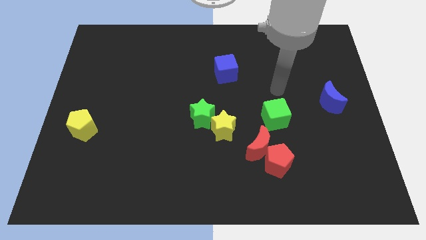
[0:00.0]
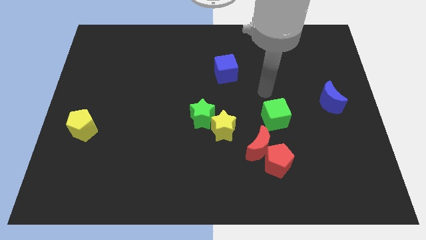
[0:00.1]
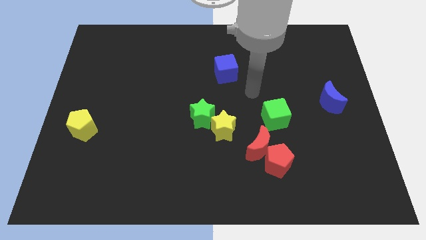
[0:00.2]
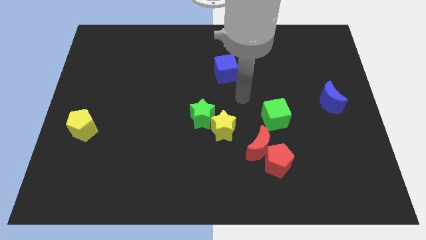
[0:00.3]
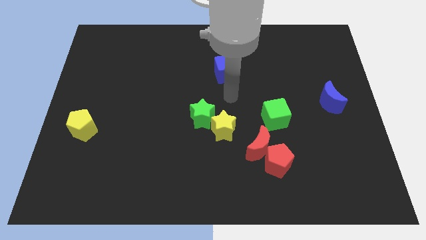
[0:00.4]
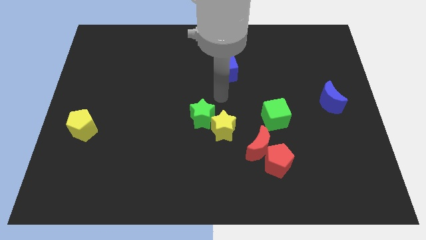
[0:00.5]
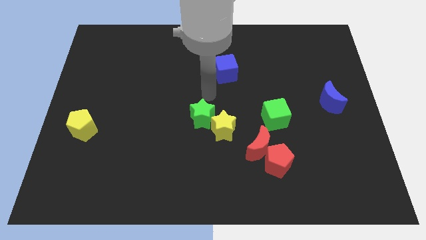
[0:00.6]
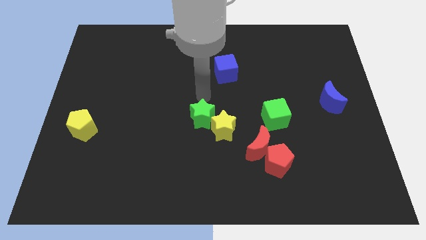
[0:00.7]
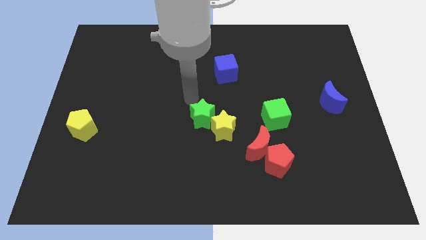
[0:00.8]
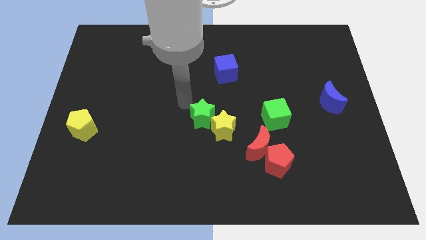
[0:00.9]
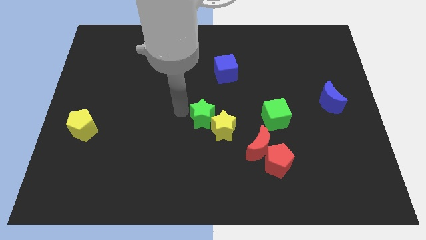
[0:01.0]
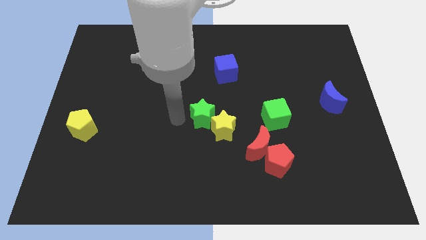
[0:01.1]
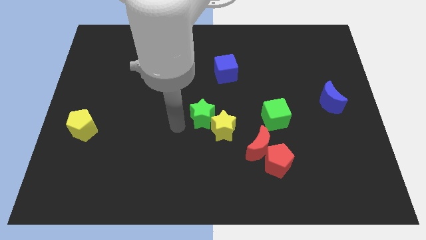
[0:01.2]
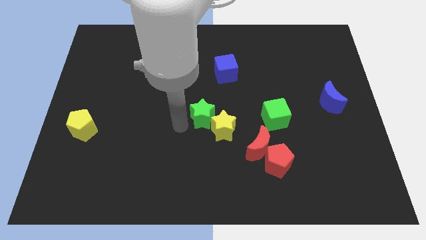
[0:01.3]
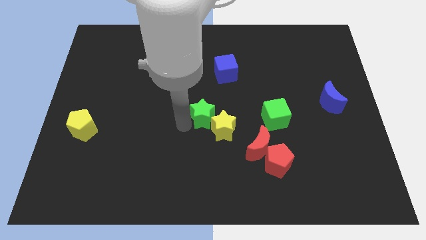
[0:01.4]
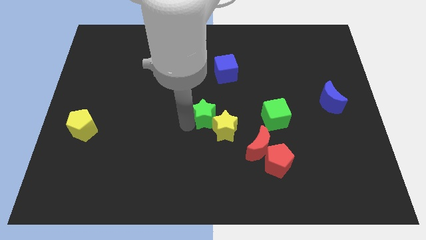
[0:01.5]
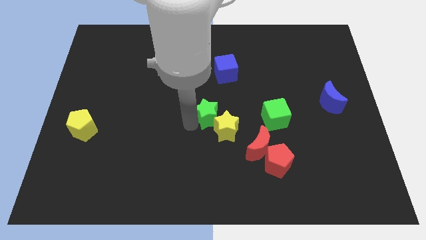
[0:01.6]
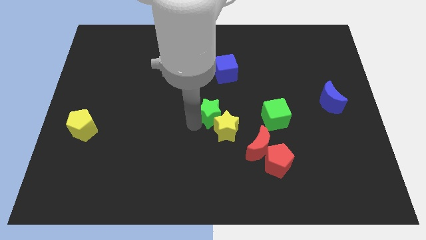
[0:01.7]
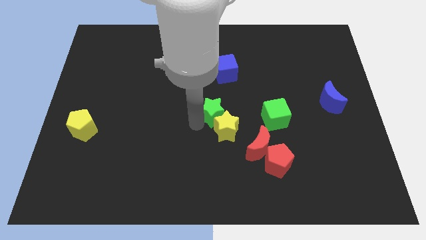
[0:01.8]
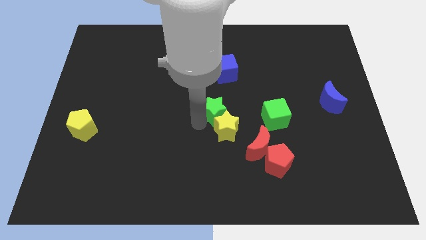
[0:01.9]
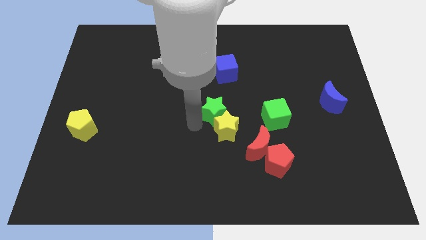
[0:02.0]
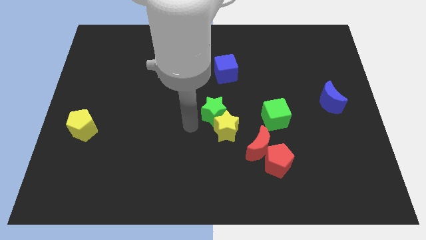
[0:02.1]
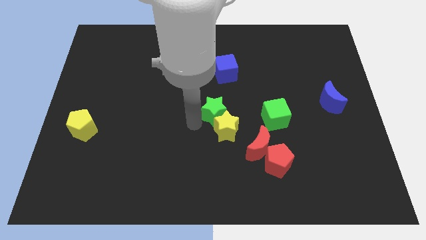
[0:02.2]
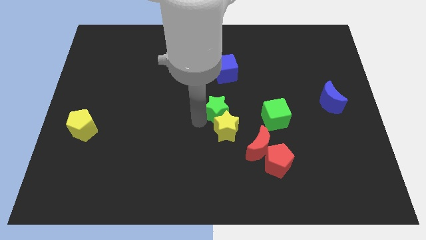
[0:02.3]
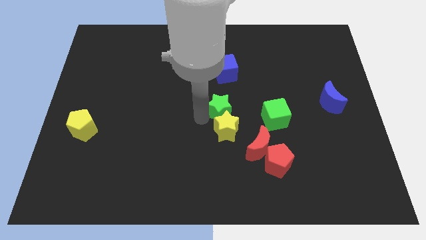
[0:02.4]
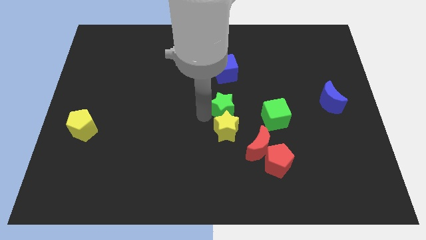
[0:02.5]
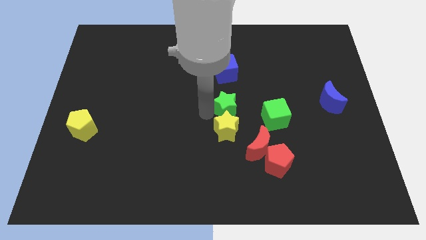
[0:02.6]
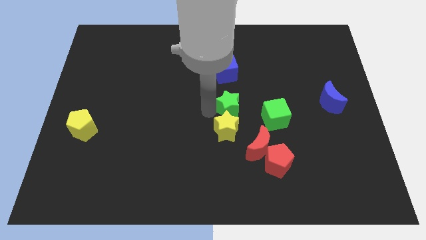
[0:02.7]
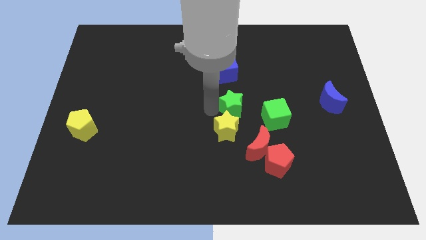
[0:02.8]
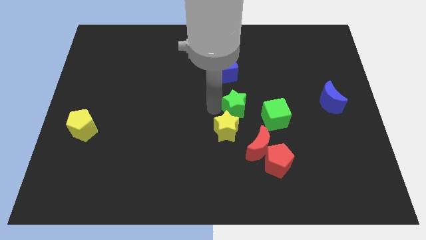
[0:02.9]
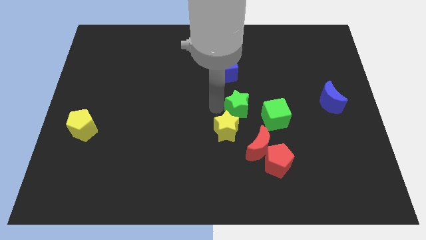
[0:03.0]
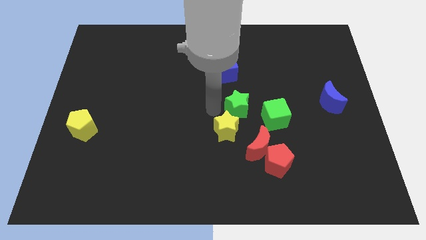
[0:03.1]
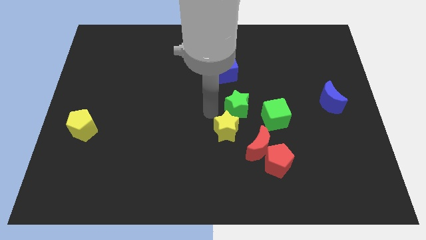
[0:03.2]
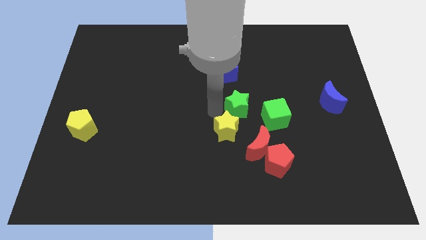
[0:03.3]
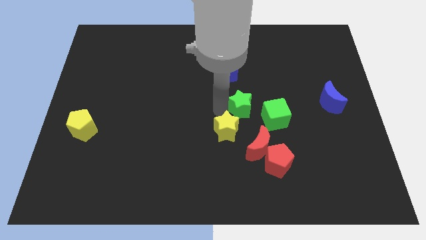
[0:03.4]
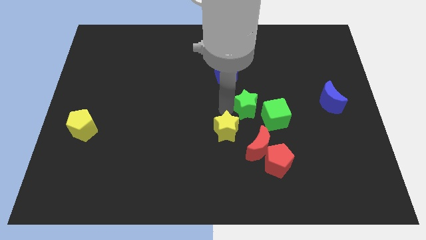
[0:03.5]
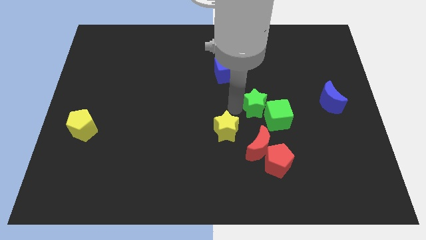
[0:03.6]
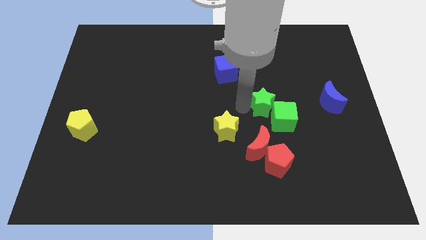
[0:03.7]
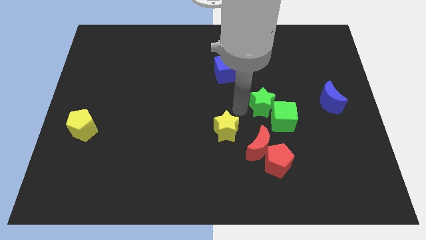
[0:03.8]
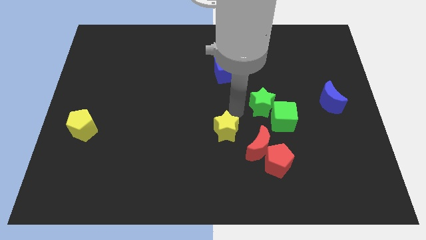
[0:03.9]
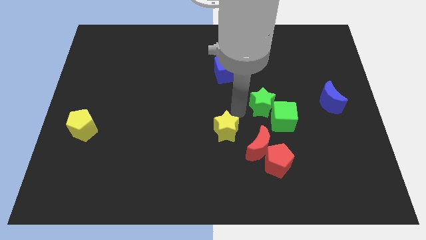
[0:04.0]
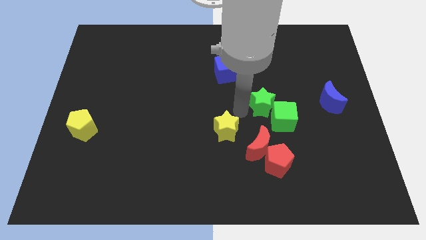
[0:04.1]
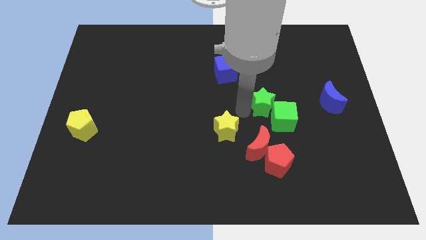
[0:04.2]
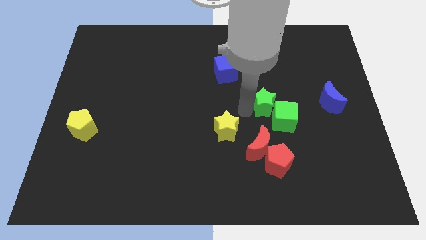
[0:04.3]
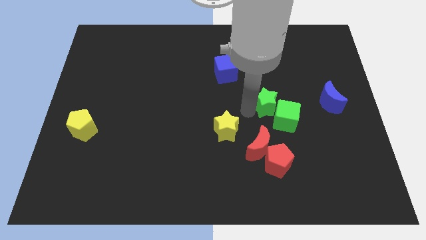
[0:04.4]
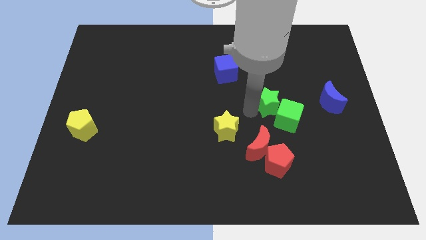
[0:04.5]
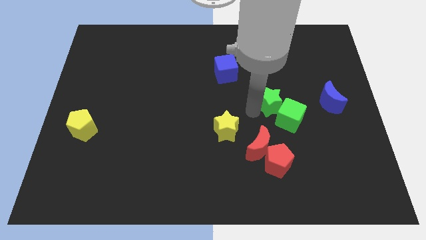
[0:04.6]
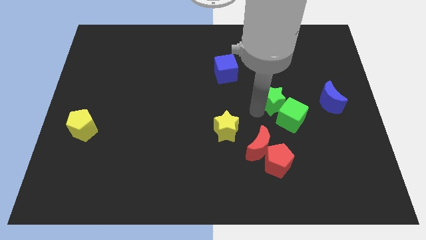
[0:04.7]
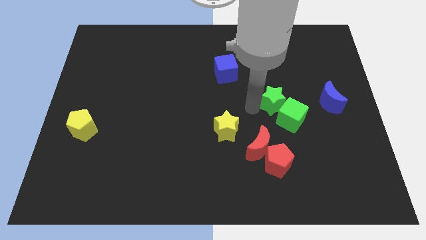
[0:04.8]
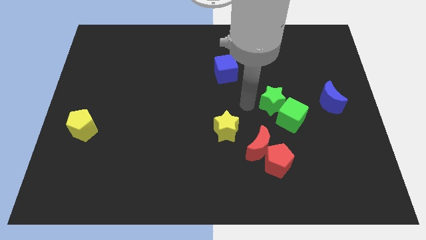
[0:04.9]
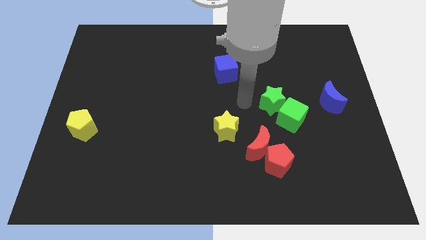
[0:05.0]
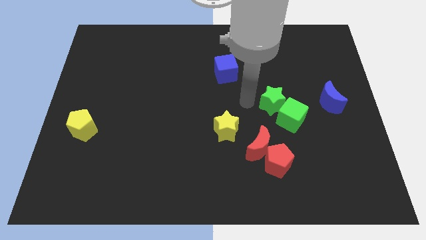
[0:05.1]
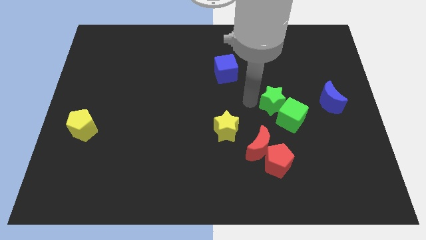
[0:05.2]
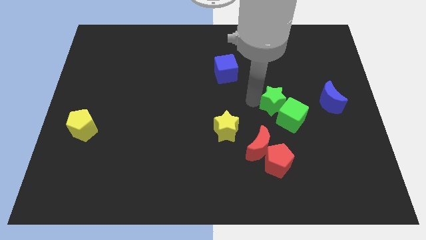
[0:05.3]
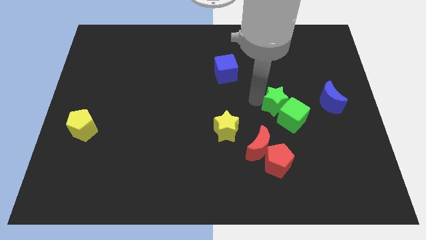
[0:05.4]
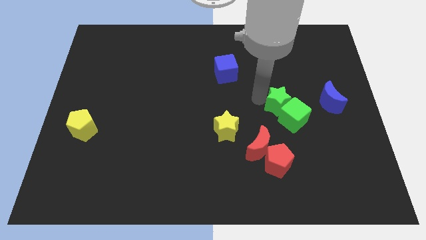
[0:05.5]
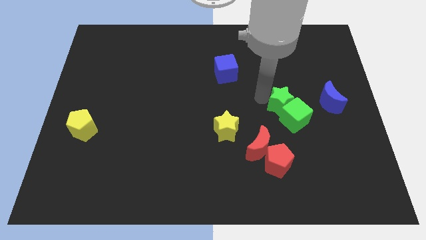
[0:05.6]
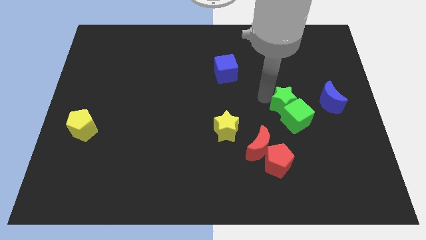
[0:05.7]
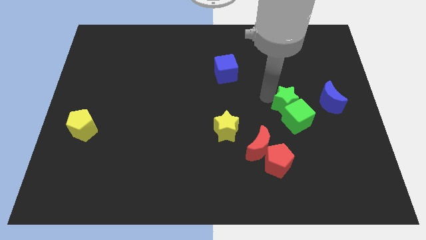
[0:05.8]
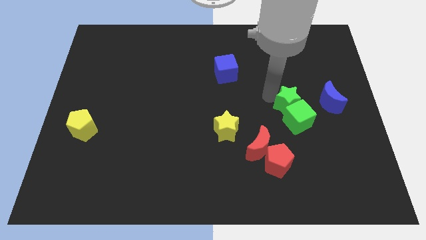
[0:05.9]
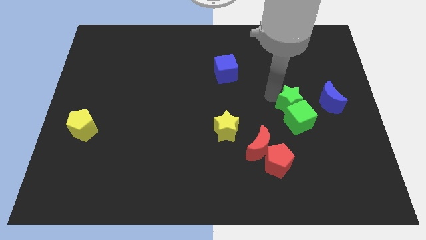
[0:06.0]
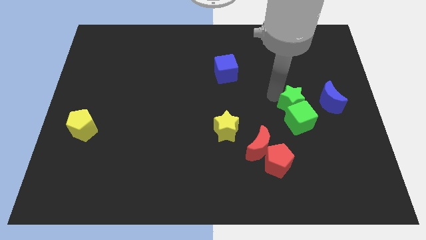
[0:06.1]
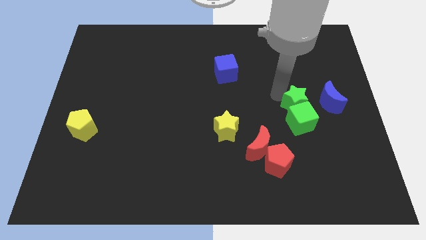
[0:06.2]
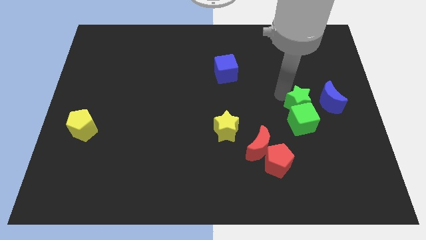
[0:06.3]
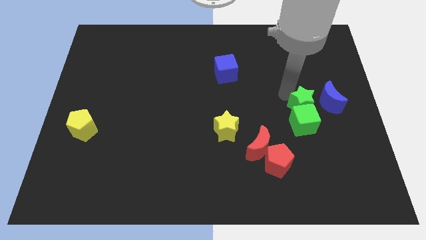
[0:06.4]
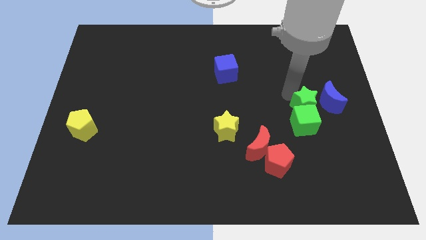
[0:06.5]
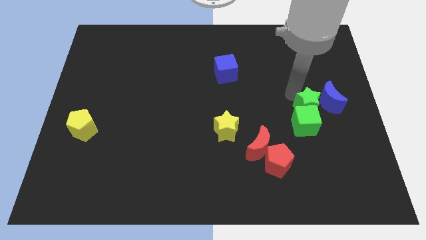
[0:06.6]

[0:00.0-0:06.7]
move the green star next to the blue moon
